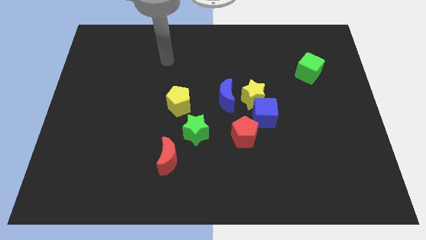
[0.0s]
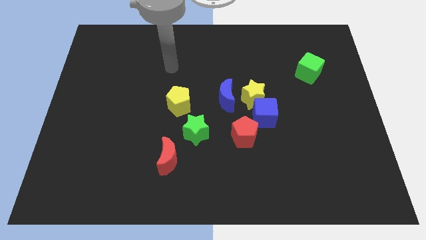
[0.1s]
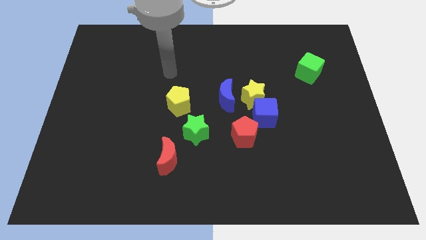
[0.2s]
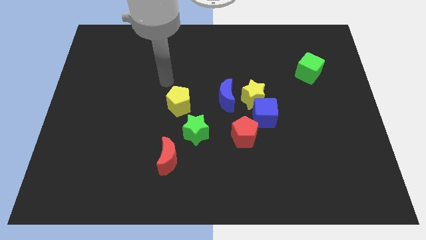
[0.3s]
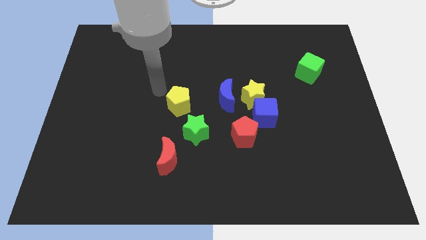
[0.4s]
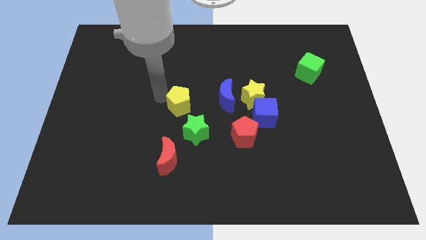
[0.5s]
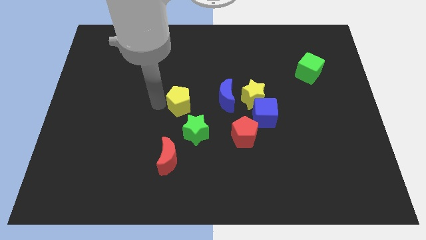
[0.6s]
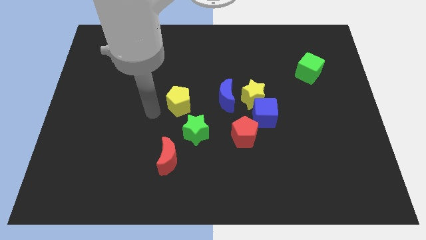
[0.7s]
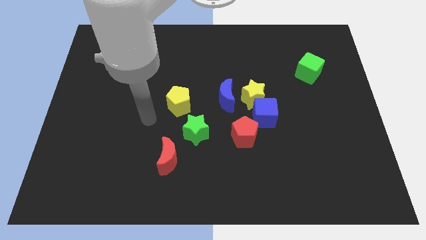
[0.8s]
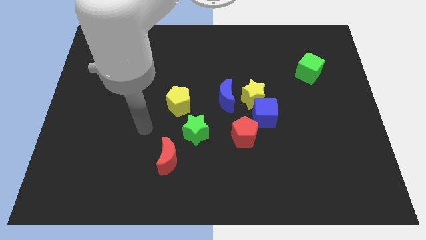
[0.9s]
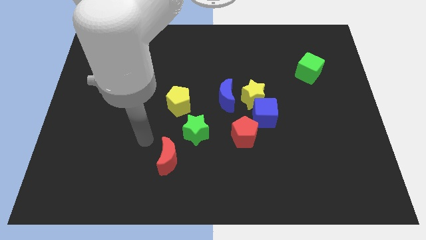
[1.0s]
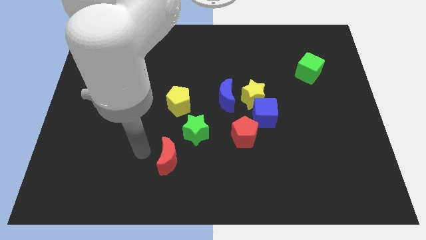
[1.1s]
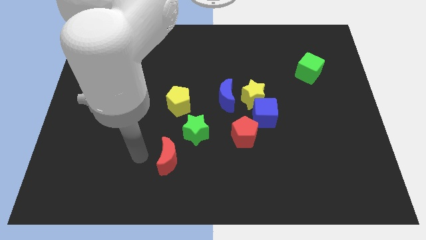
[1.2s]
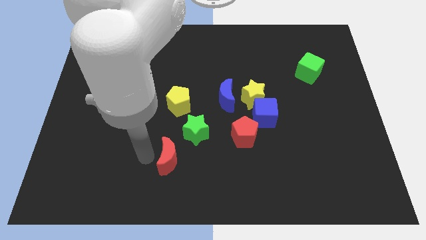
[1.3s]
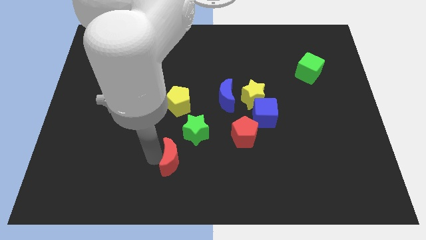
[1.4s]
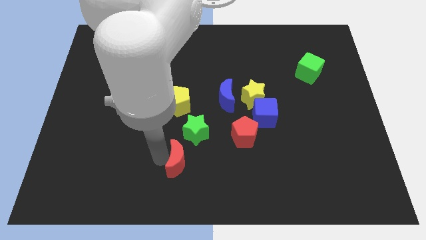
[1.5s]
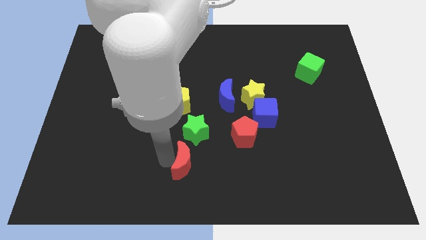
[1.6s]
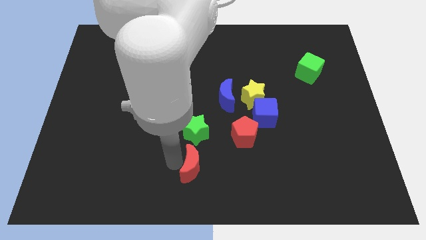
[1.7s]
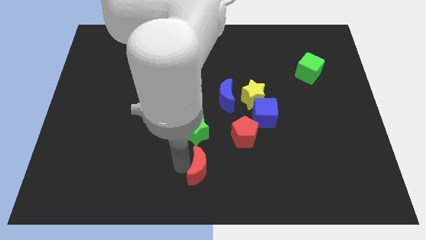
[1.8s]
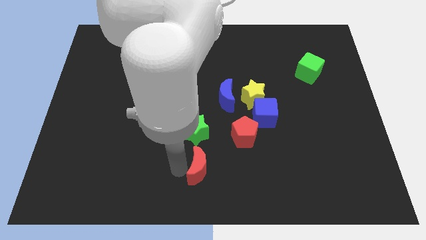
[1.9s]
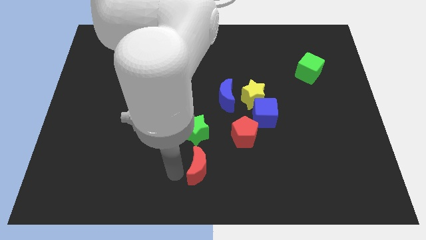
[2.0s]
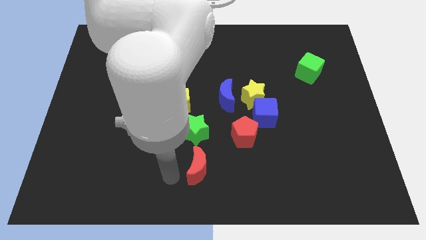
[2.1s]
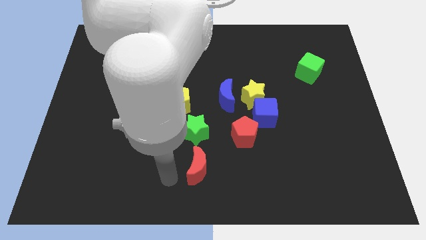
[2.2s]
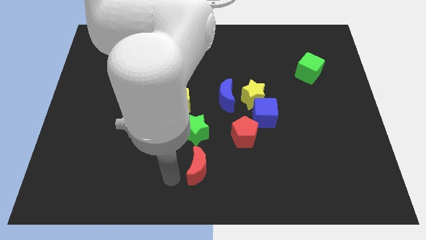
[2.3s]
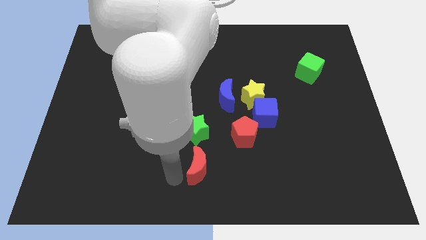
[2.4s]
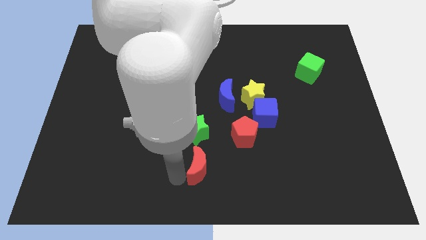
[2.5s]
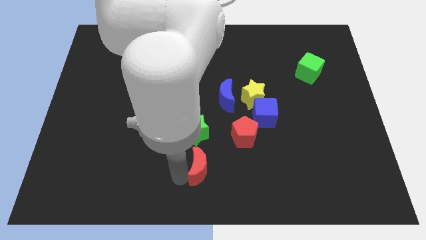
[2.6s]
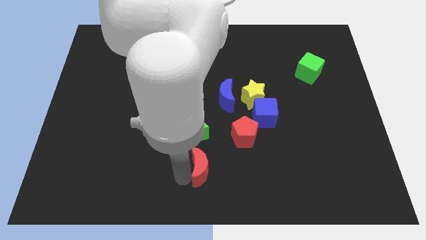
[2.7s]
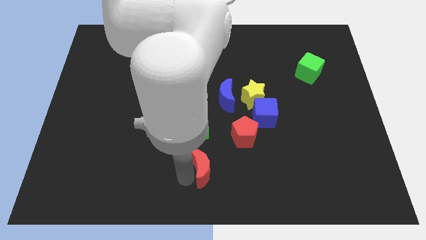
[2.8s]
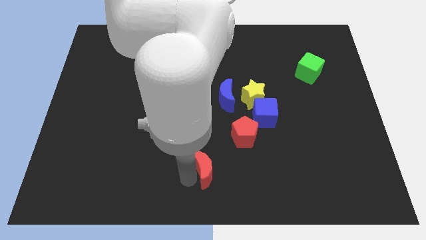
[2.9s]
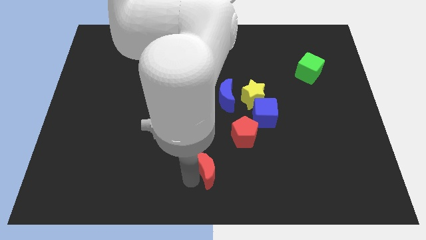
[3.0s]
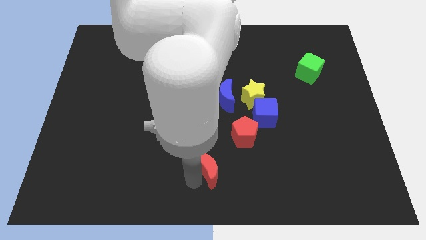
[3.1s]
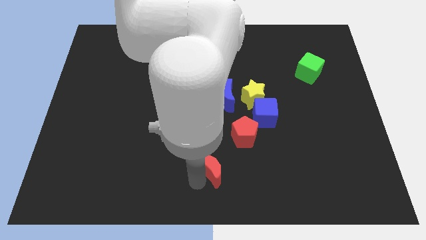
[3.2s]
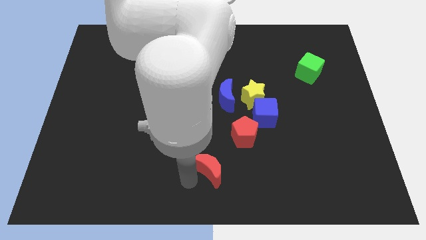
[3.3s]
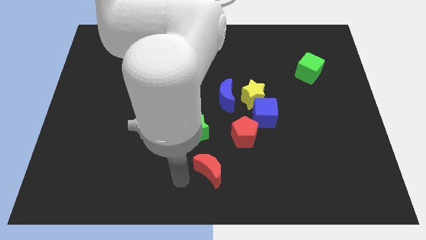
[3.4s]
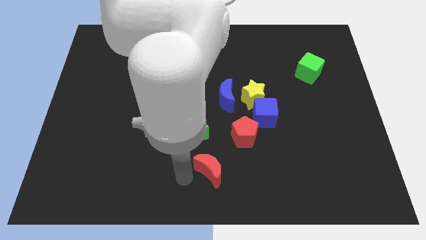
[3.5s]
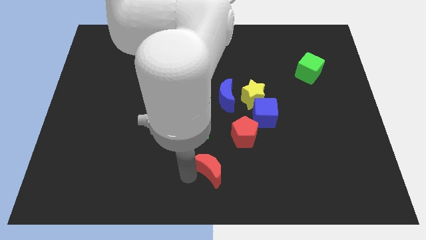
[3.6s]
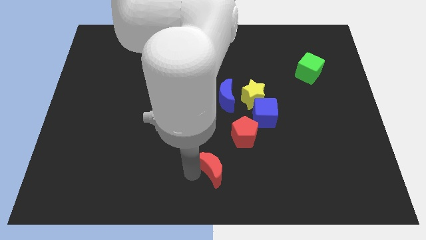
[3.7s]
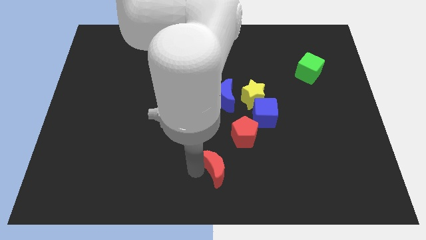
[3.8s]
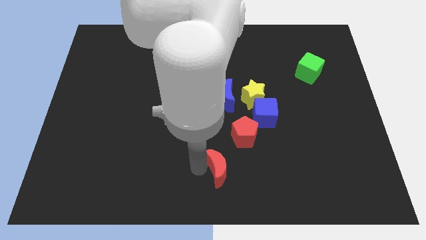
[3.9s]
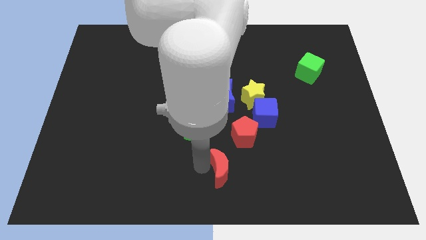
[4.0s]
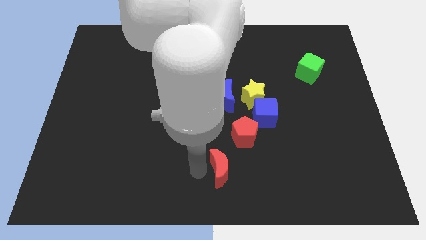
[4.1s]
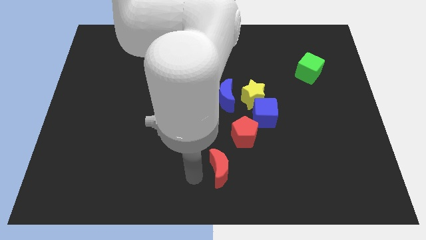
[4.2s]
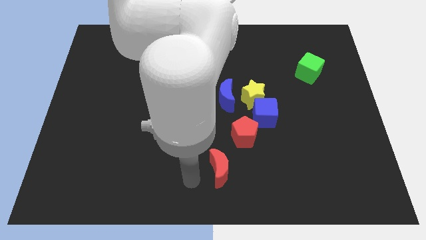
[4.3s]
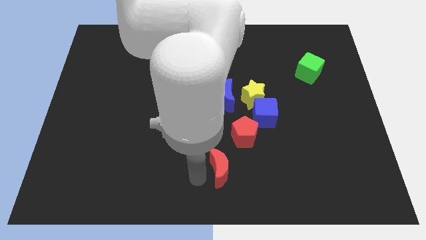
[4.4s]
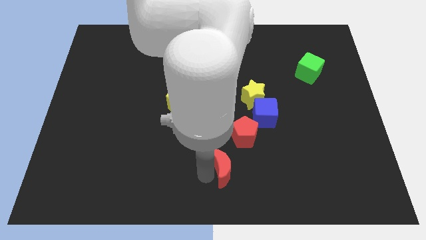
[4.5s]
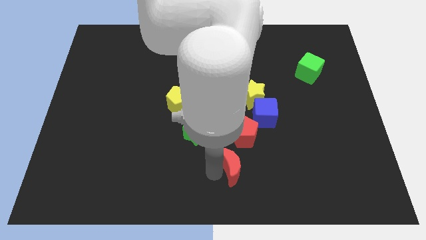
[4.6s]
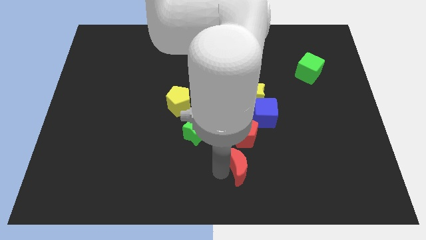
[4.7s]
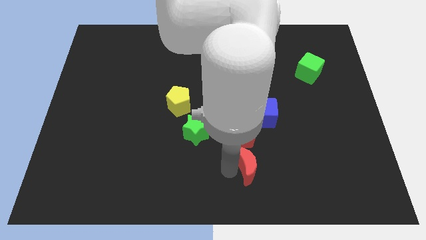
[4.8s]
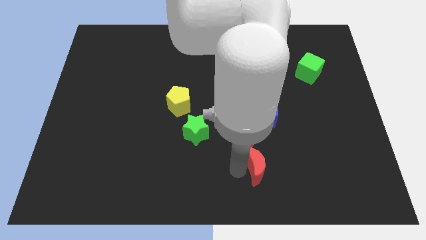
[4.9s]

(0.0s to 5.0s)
put the red moon to the bottom of the blue cube

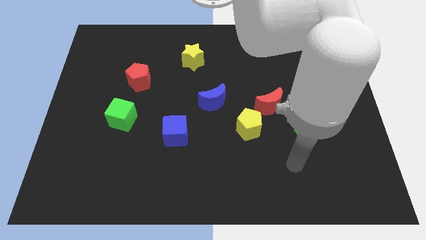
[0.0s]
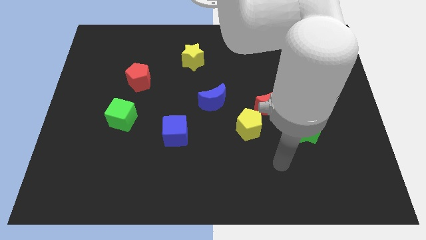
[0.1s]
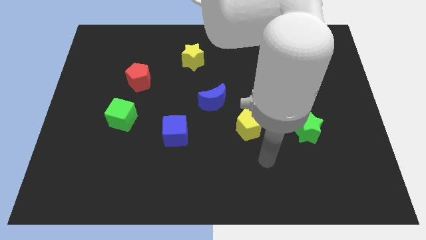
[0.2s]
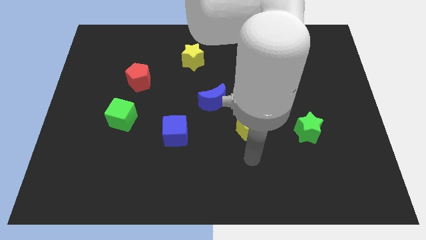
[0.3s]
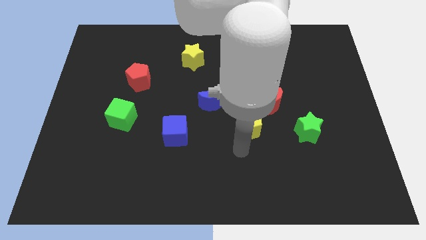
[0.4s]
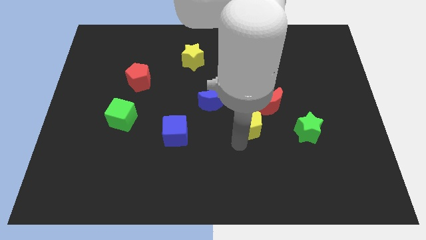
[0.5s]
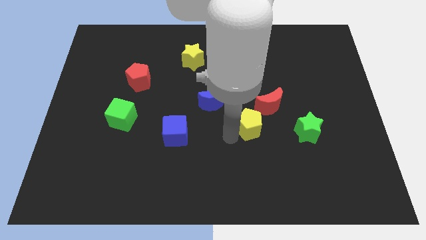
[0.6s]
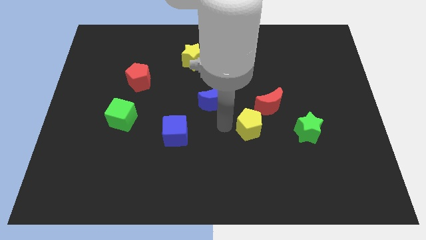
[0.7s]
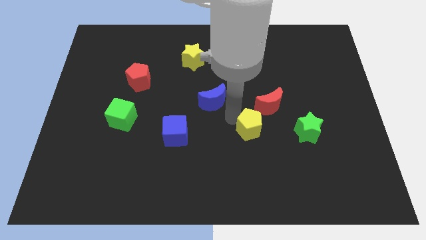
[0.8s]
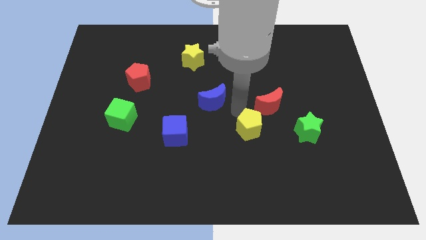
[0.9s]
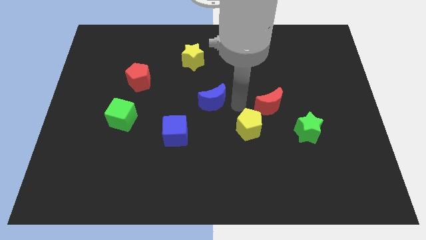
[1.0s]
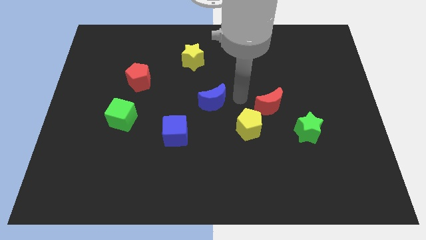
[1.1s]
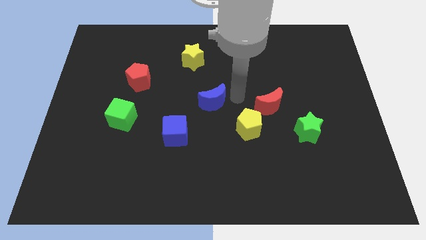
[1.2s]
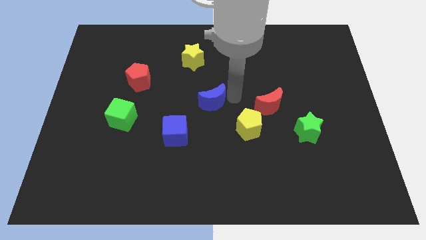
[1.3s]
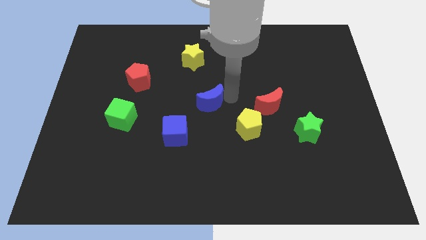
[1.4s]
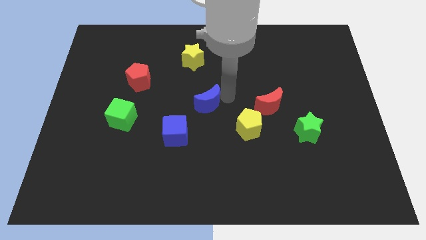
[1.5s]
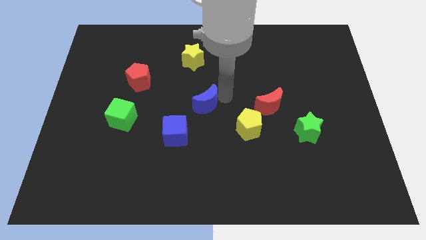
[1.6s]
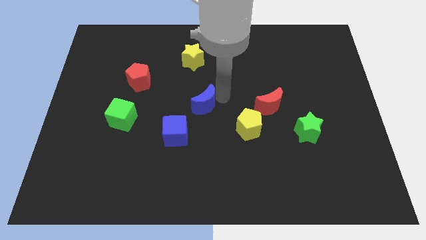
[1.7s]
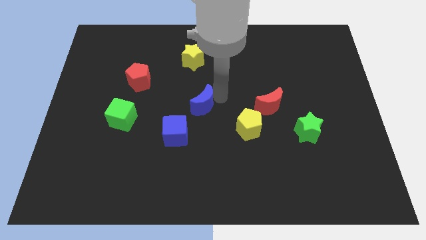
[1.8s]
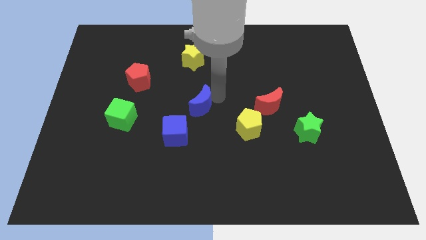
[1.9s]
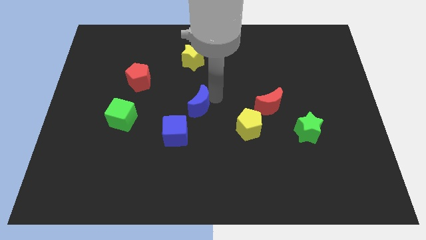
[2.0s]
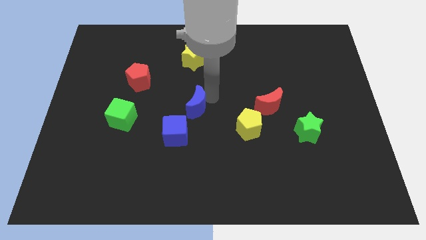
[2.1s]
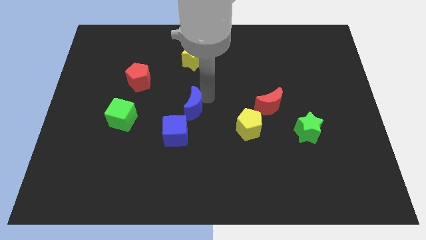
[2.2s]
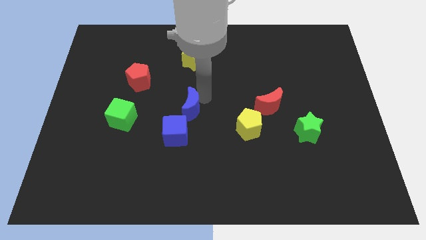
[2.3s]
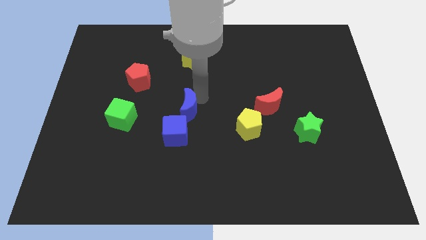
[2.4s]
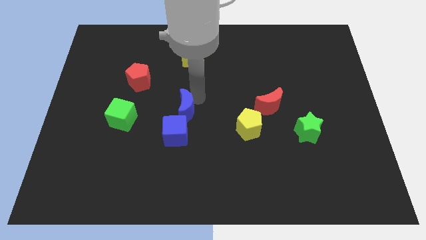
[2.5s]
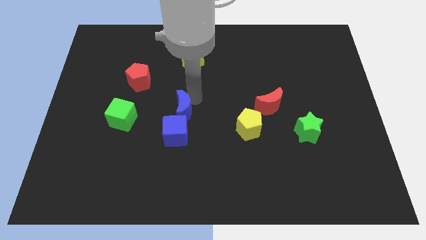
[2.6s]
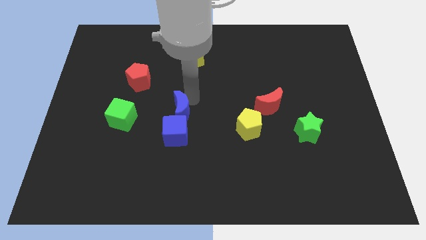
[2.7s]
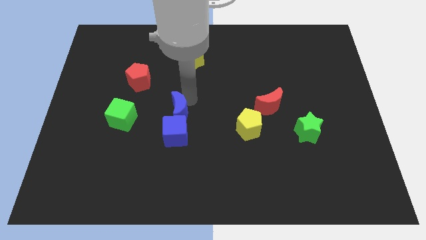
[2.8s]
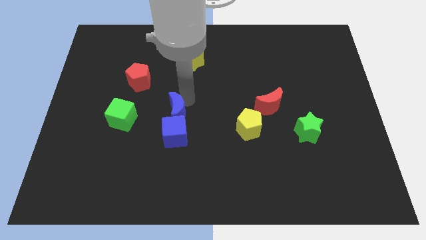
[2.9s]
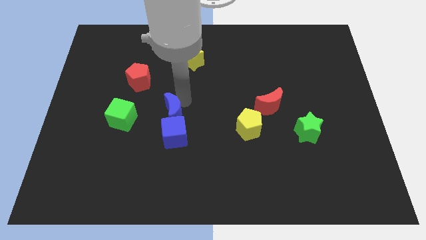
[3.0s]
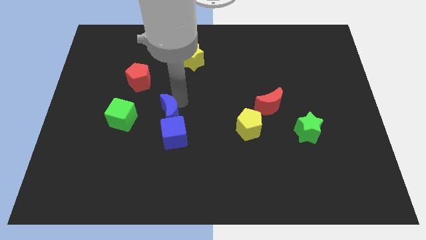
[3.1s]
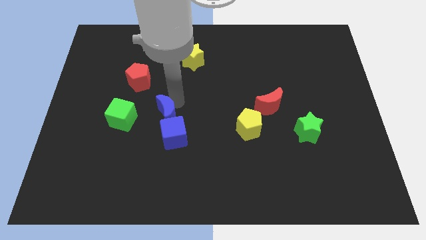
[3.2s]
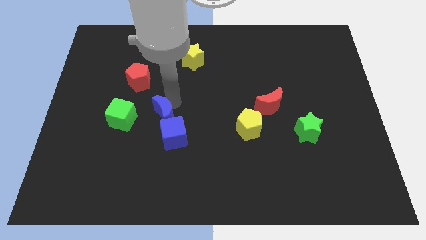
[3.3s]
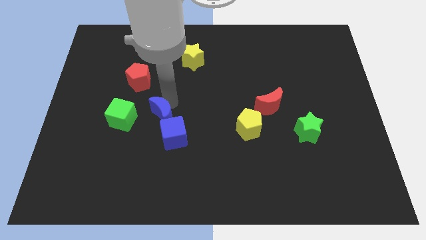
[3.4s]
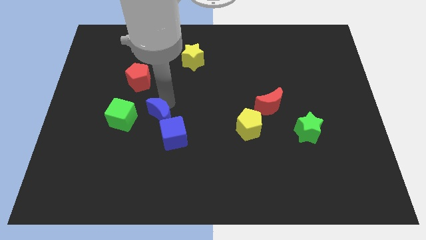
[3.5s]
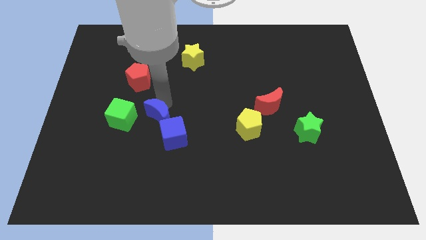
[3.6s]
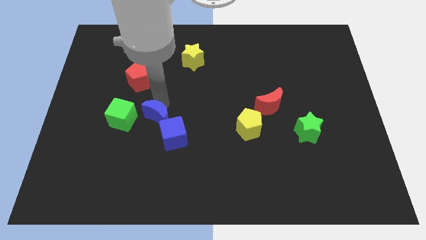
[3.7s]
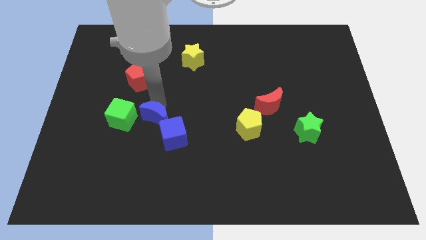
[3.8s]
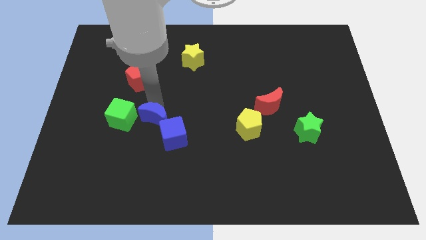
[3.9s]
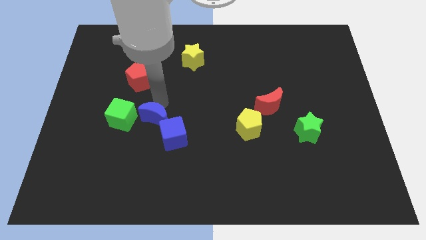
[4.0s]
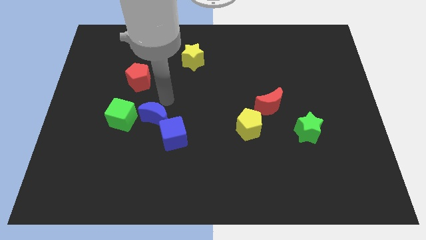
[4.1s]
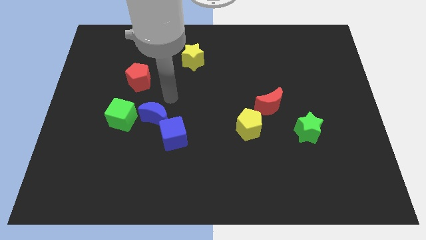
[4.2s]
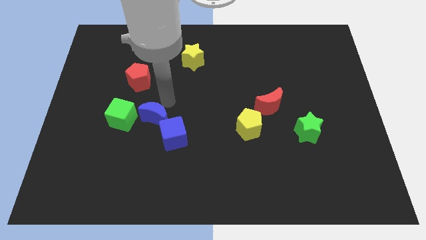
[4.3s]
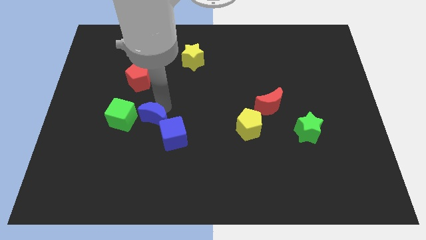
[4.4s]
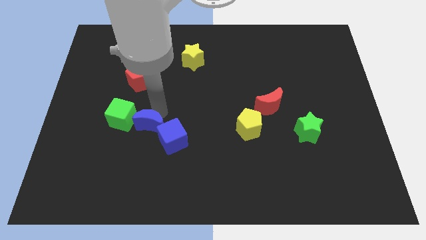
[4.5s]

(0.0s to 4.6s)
move the blue moon to the bottom right of the green cube
